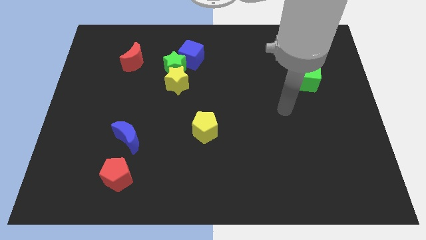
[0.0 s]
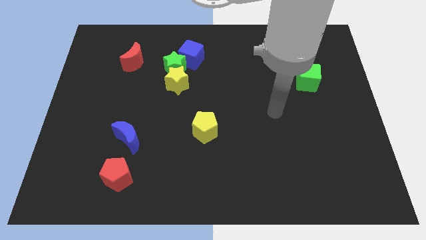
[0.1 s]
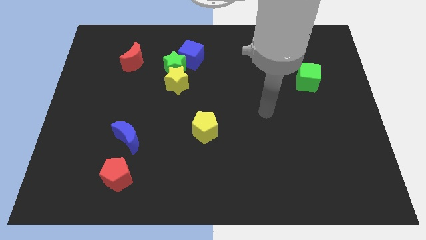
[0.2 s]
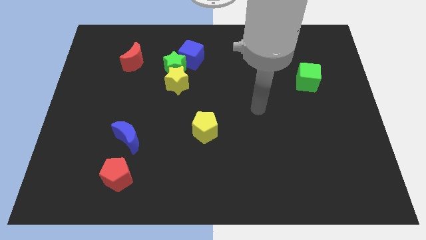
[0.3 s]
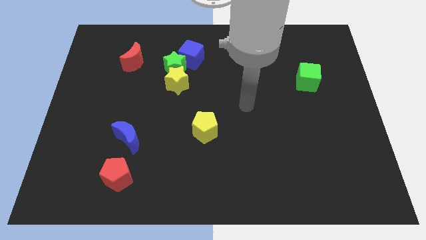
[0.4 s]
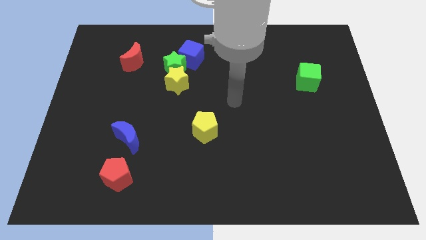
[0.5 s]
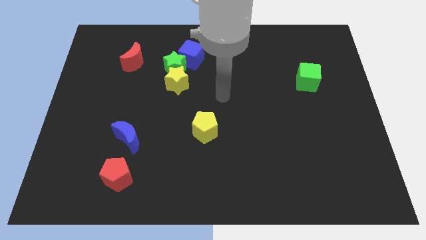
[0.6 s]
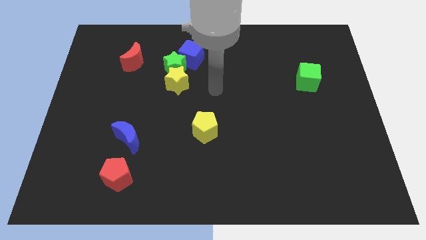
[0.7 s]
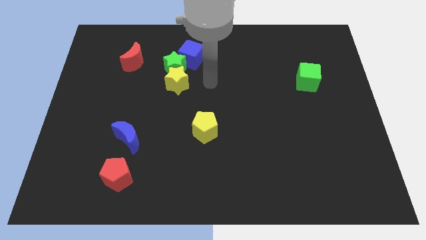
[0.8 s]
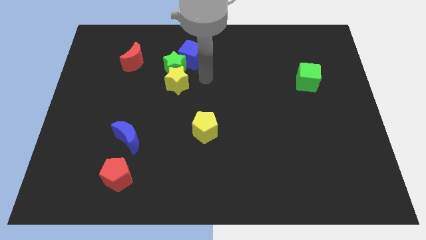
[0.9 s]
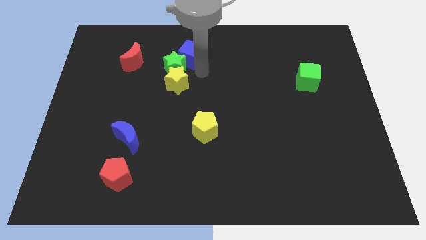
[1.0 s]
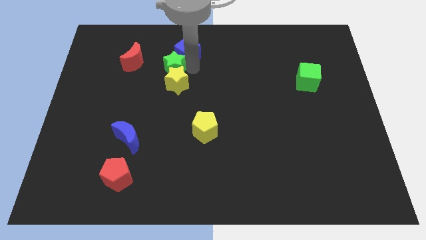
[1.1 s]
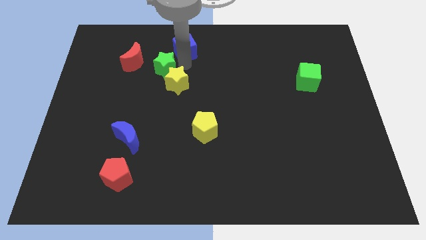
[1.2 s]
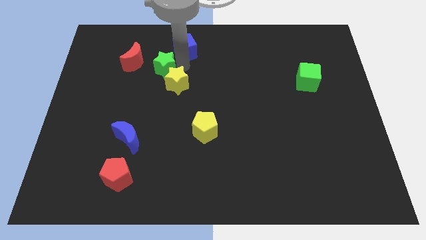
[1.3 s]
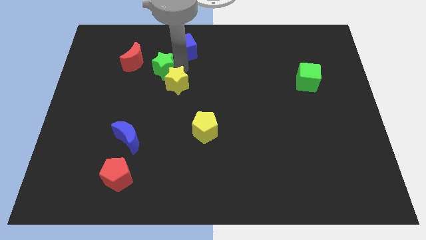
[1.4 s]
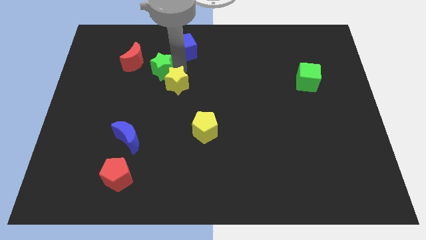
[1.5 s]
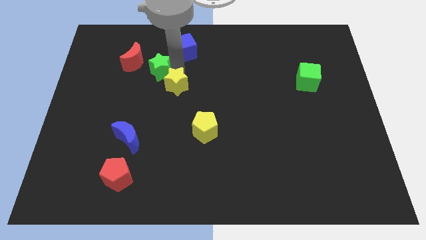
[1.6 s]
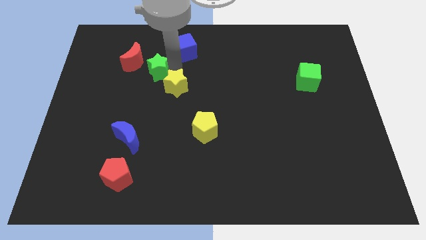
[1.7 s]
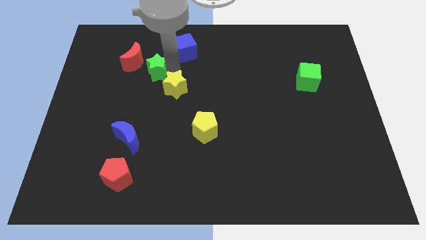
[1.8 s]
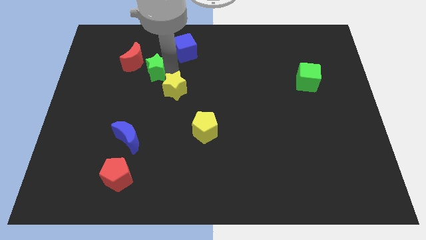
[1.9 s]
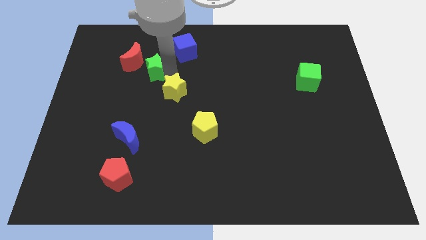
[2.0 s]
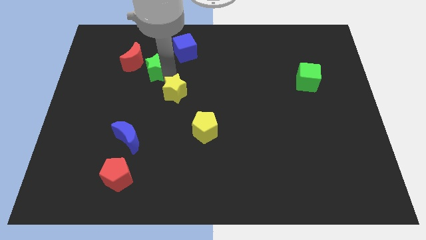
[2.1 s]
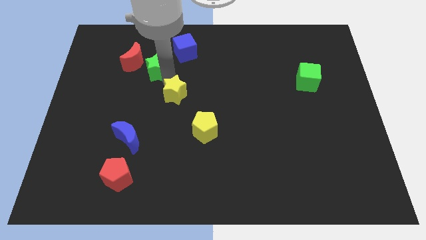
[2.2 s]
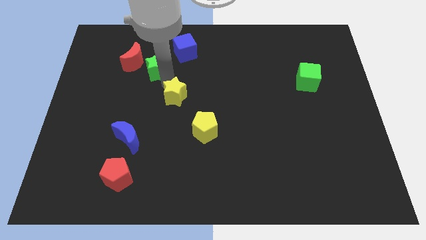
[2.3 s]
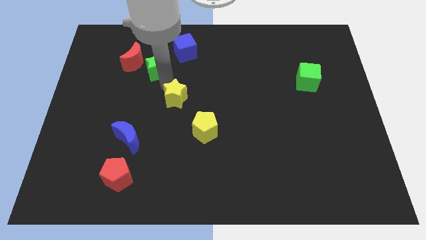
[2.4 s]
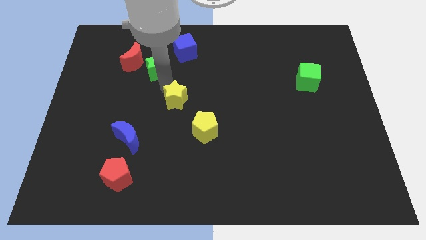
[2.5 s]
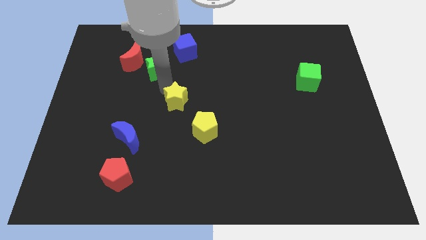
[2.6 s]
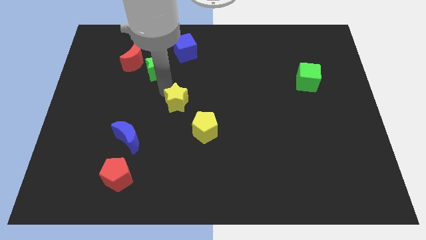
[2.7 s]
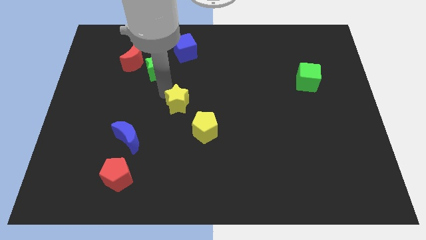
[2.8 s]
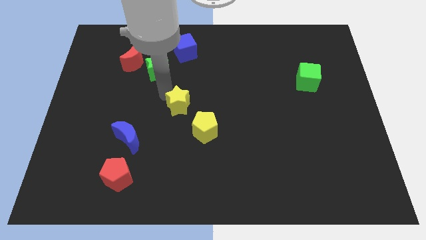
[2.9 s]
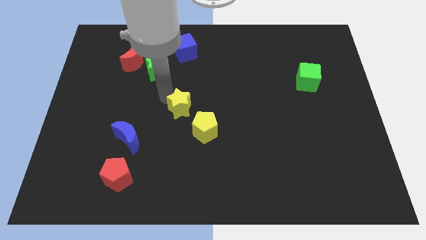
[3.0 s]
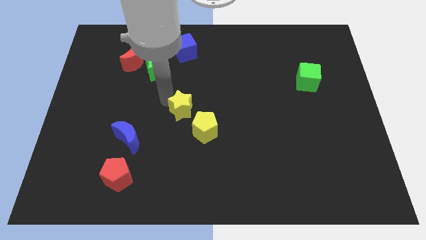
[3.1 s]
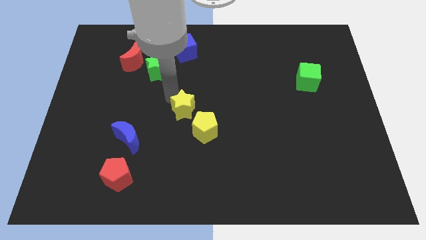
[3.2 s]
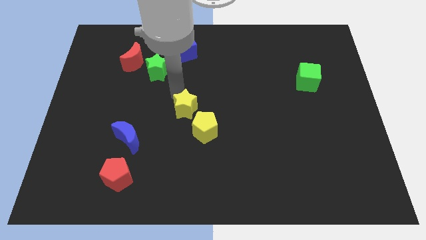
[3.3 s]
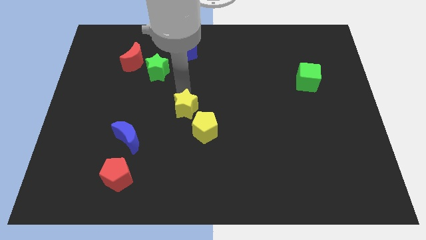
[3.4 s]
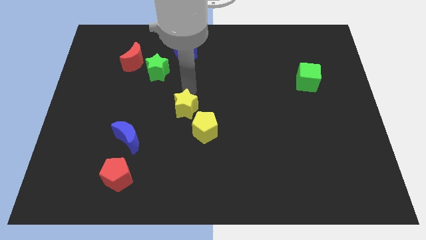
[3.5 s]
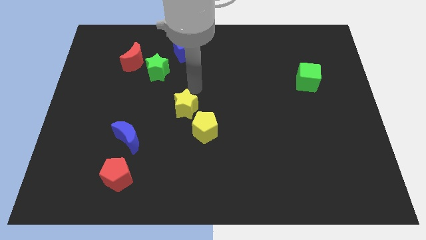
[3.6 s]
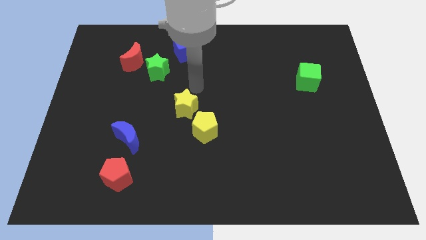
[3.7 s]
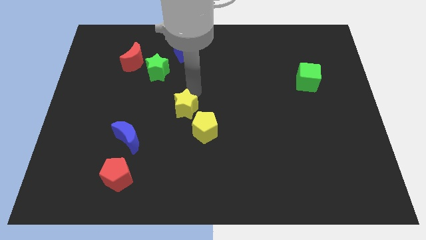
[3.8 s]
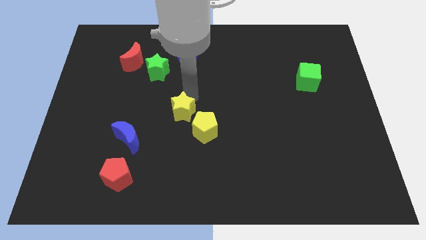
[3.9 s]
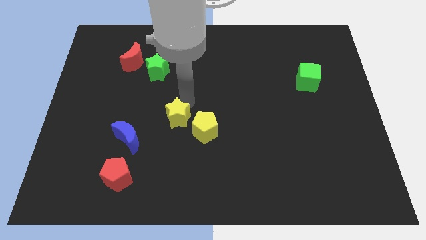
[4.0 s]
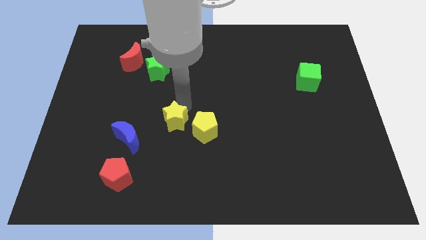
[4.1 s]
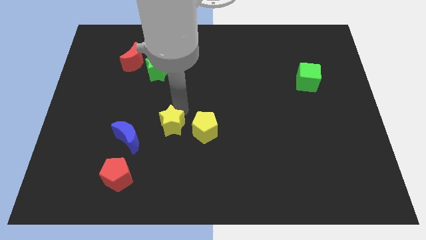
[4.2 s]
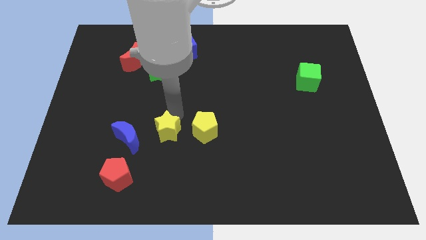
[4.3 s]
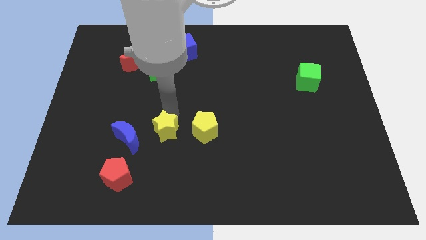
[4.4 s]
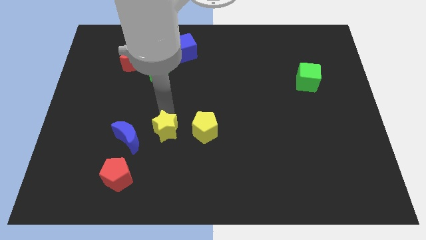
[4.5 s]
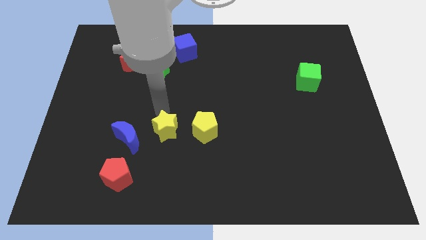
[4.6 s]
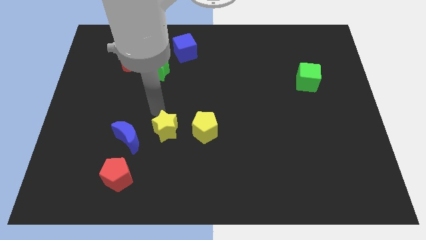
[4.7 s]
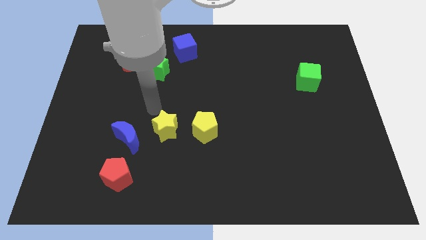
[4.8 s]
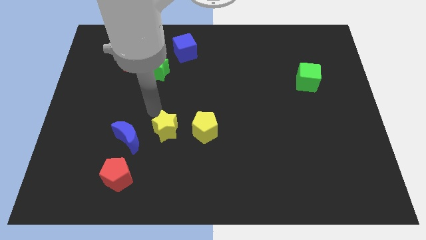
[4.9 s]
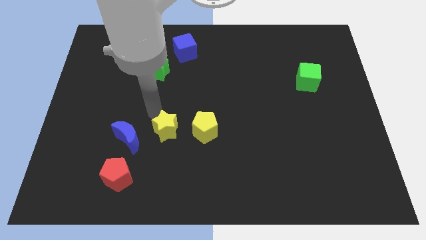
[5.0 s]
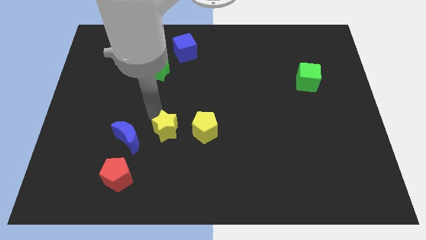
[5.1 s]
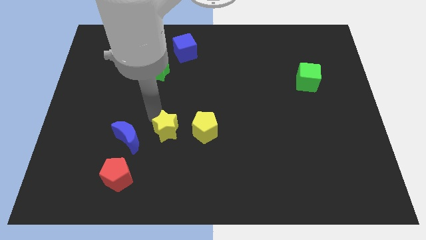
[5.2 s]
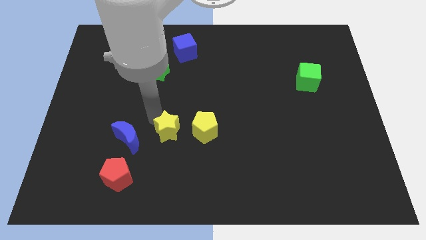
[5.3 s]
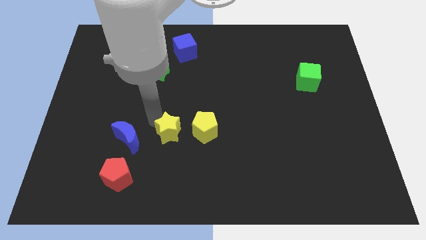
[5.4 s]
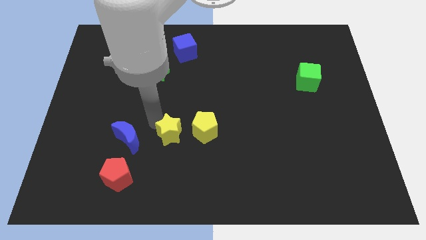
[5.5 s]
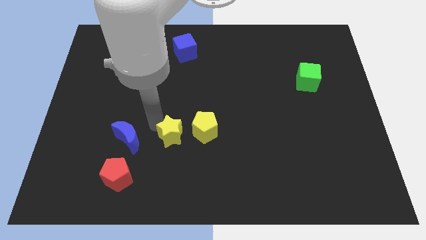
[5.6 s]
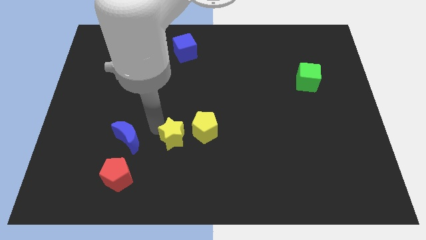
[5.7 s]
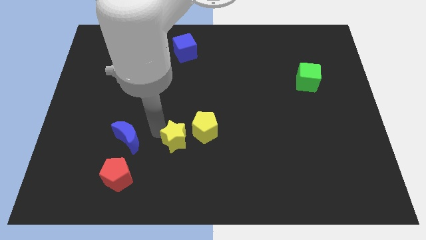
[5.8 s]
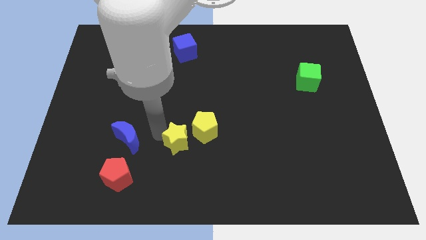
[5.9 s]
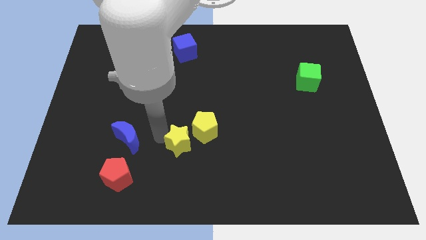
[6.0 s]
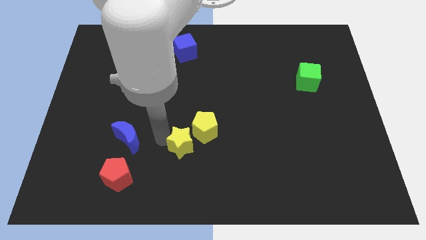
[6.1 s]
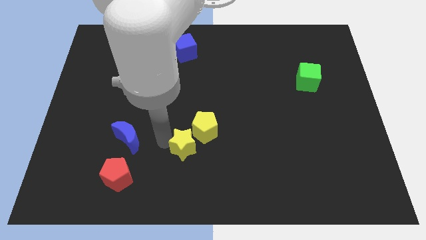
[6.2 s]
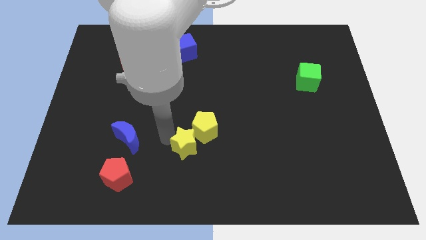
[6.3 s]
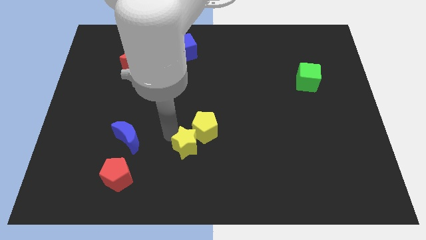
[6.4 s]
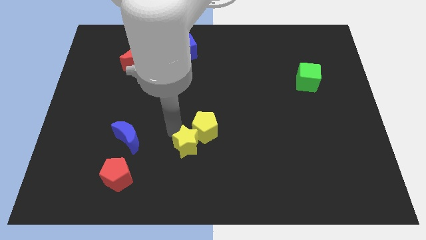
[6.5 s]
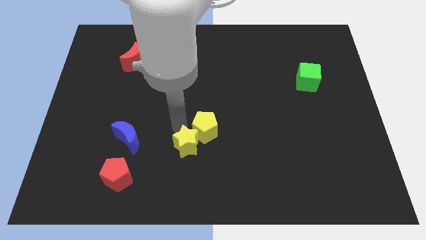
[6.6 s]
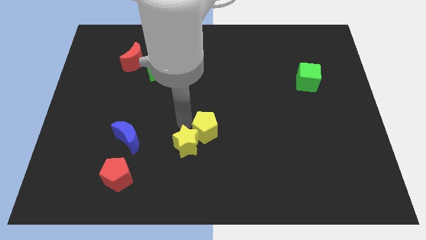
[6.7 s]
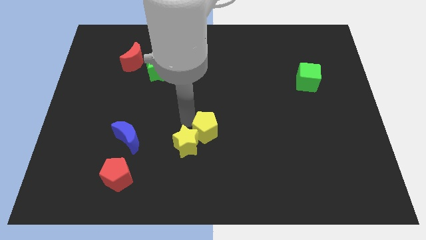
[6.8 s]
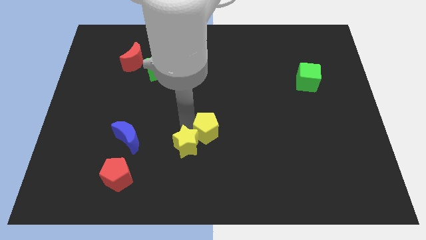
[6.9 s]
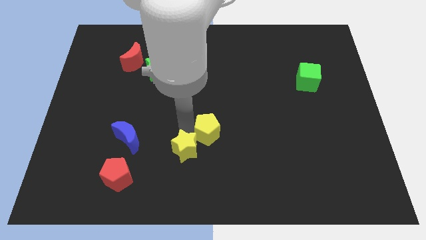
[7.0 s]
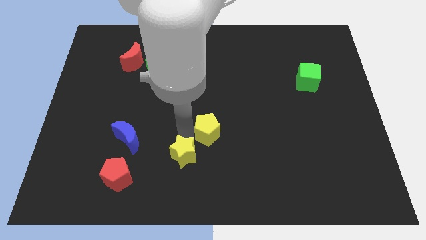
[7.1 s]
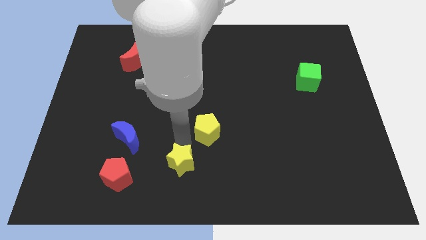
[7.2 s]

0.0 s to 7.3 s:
push the yellow star to the bottom side

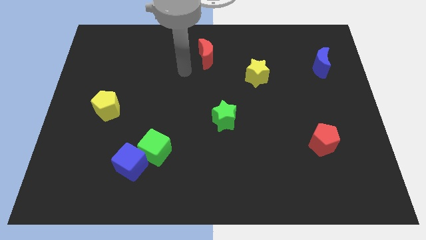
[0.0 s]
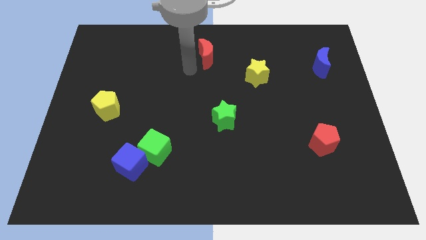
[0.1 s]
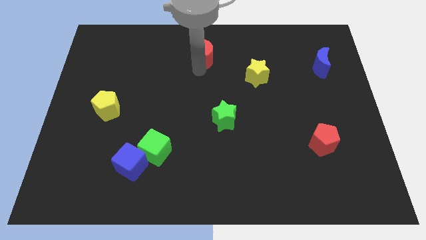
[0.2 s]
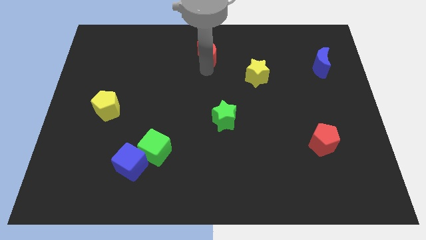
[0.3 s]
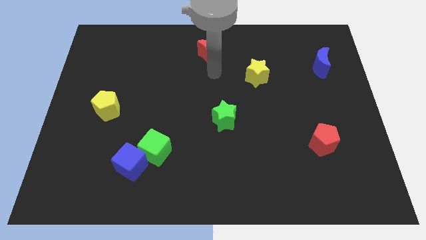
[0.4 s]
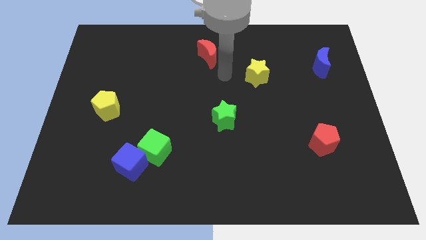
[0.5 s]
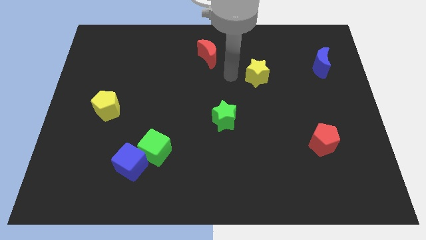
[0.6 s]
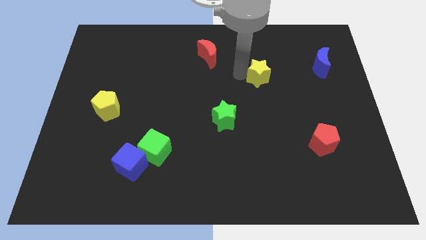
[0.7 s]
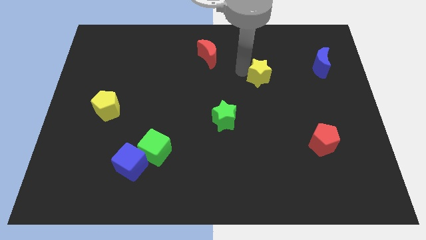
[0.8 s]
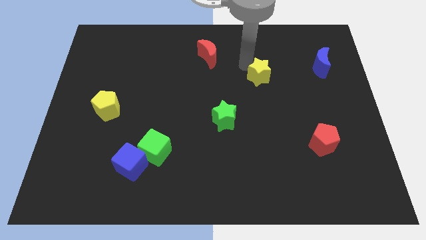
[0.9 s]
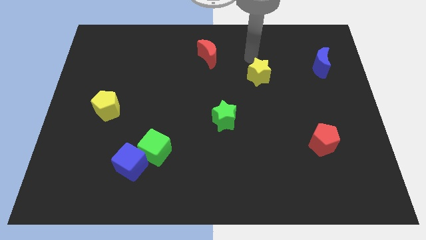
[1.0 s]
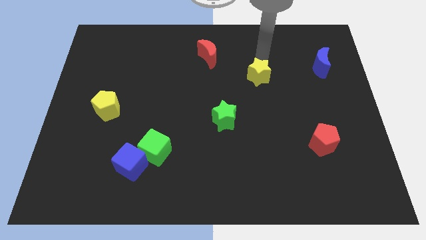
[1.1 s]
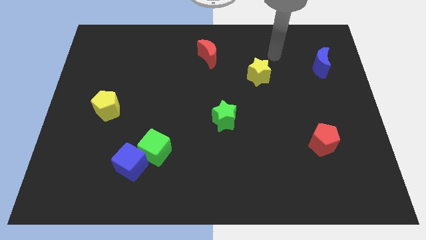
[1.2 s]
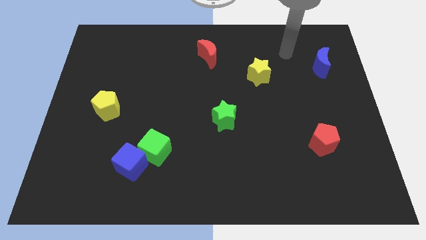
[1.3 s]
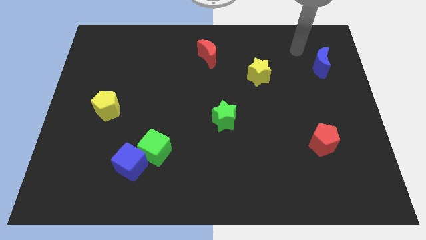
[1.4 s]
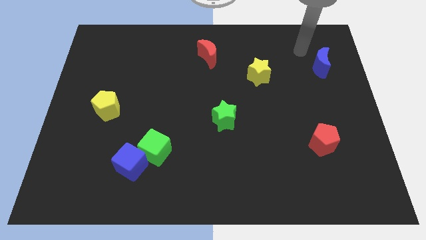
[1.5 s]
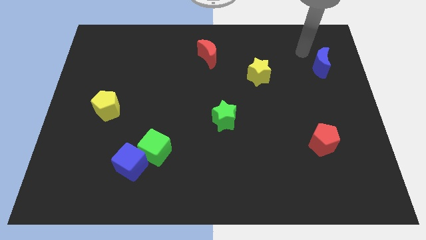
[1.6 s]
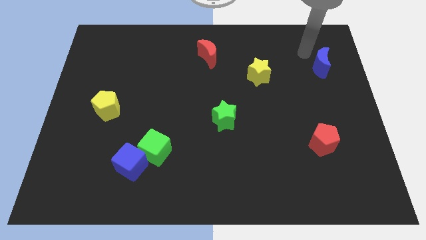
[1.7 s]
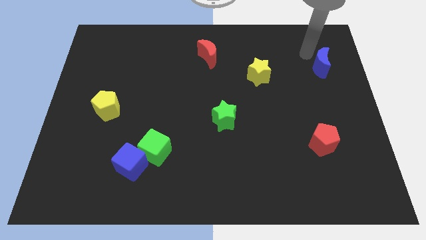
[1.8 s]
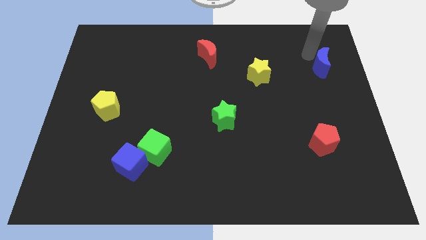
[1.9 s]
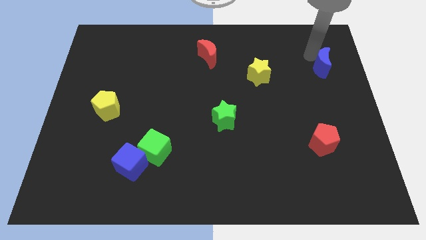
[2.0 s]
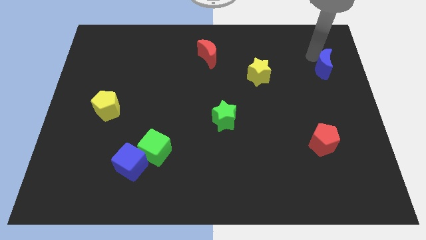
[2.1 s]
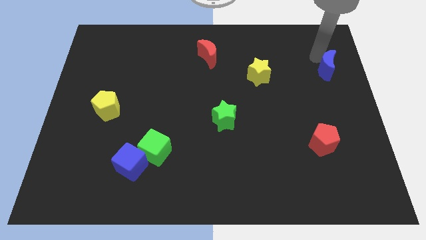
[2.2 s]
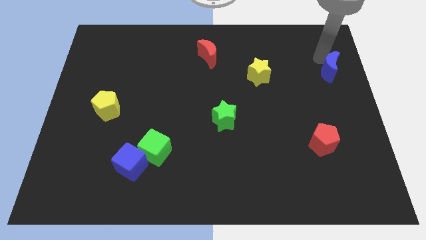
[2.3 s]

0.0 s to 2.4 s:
slide the blue moon to the right side of the board
